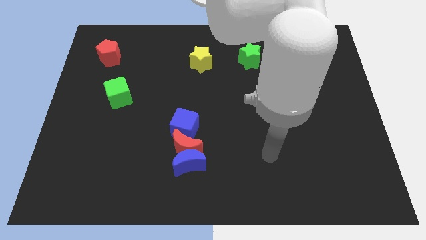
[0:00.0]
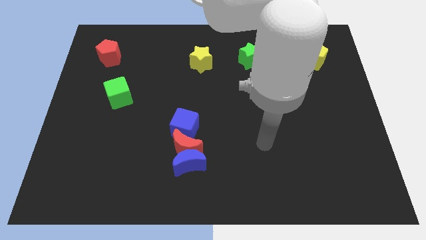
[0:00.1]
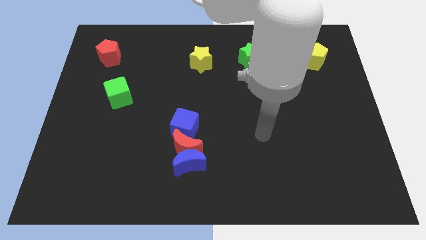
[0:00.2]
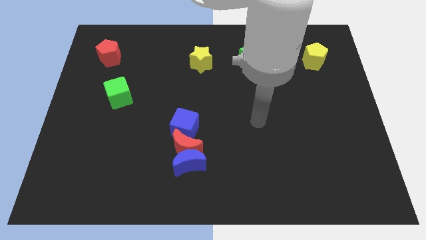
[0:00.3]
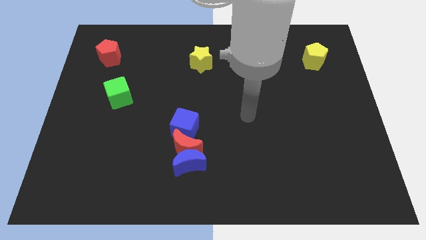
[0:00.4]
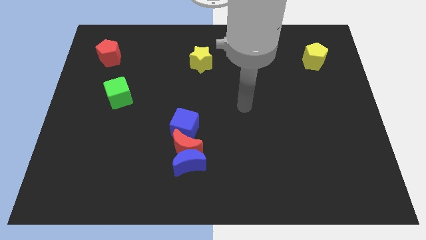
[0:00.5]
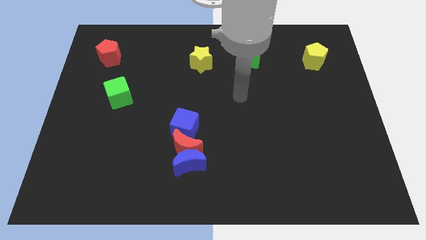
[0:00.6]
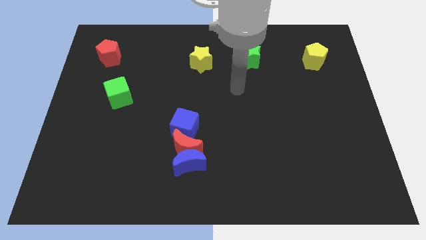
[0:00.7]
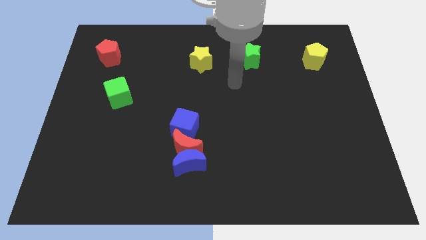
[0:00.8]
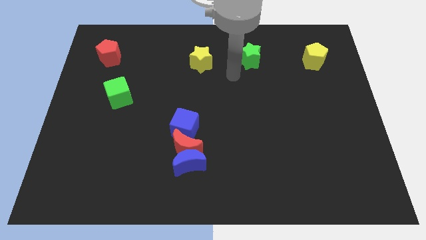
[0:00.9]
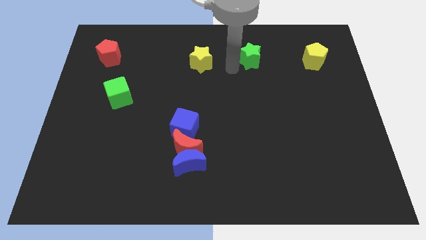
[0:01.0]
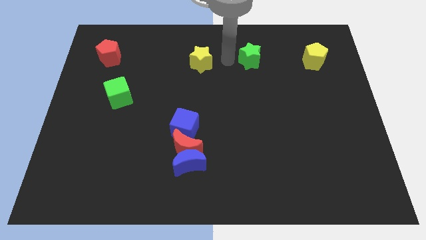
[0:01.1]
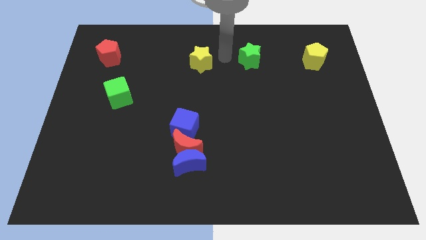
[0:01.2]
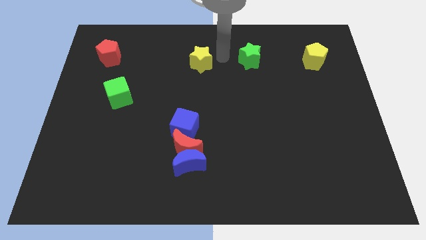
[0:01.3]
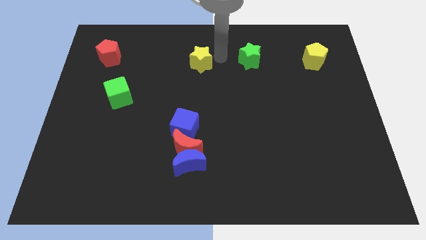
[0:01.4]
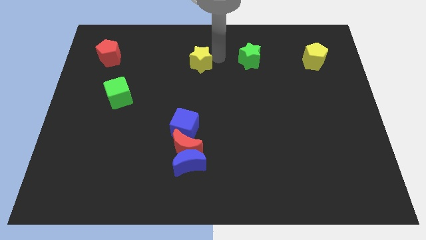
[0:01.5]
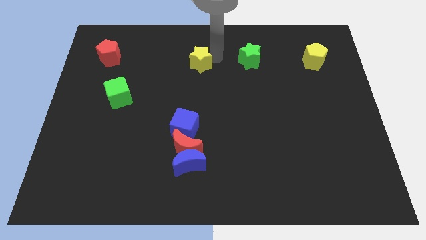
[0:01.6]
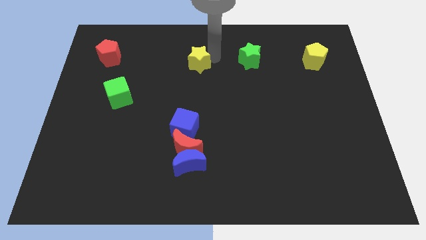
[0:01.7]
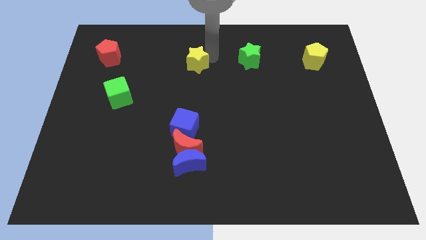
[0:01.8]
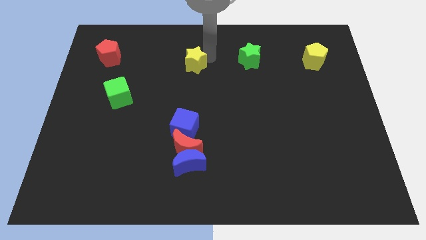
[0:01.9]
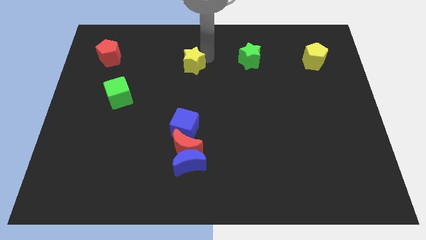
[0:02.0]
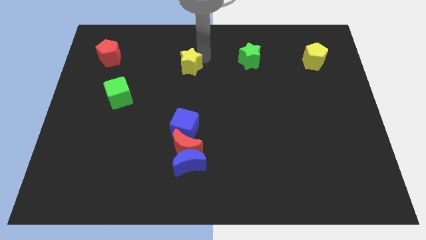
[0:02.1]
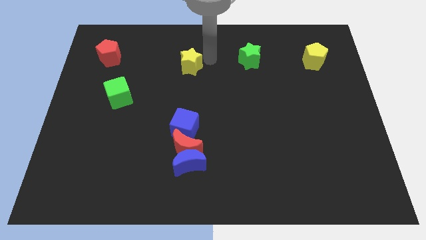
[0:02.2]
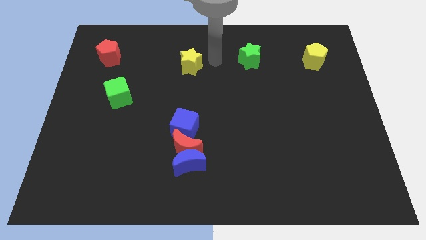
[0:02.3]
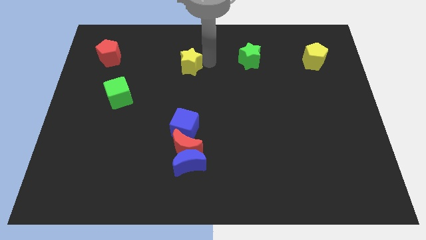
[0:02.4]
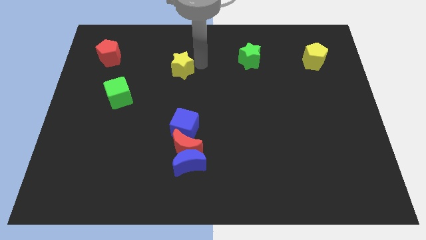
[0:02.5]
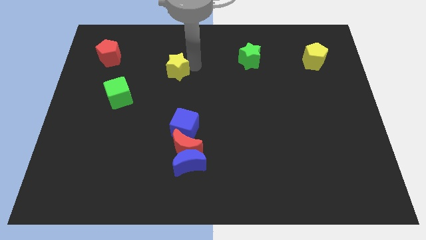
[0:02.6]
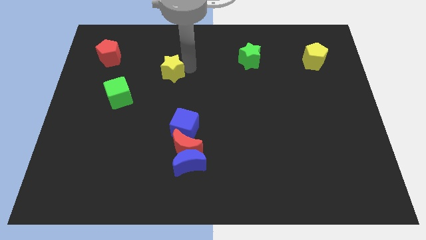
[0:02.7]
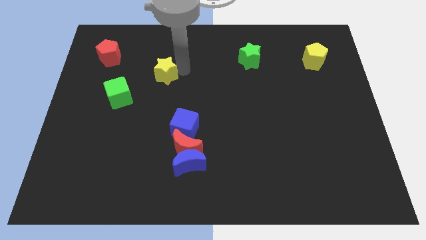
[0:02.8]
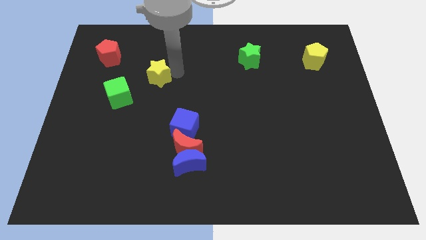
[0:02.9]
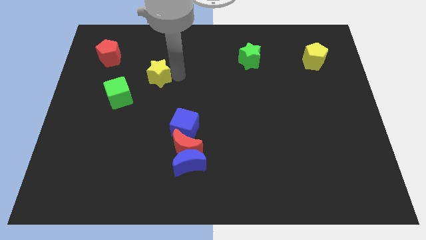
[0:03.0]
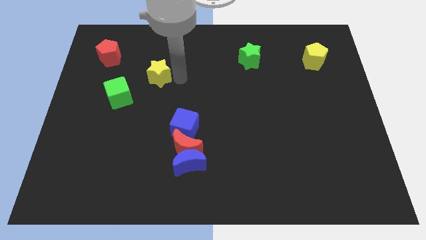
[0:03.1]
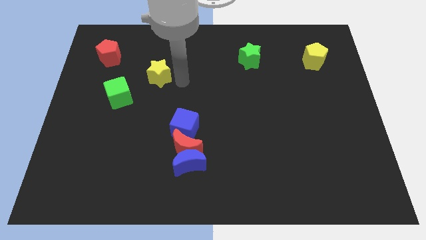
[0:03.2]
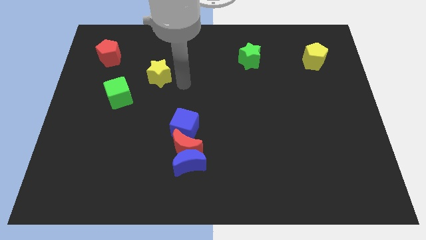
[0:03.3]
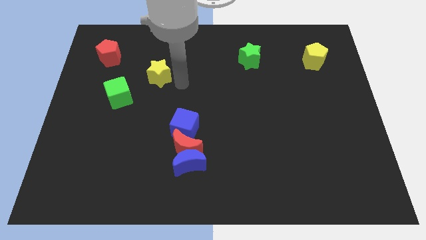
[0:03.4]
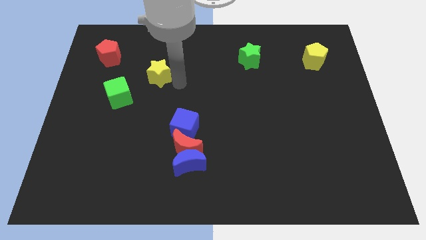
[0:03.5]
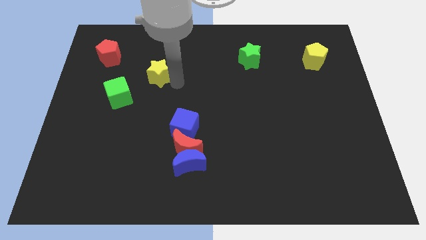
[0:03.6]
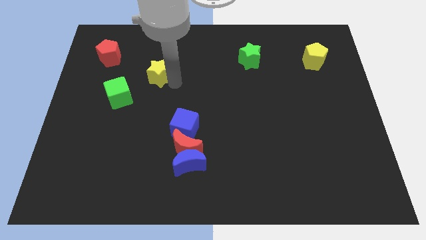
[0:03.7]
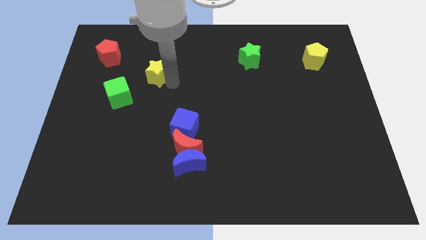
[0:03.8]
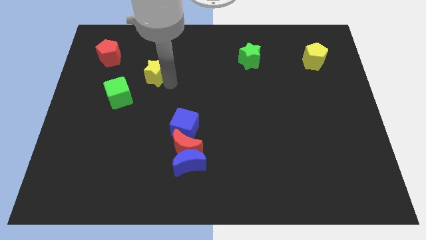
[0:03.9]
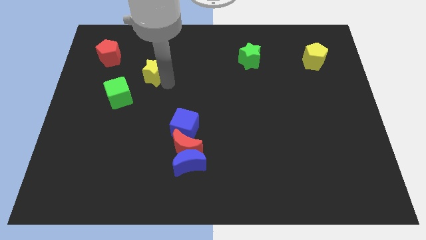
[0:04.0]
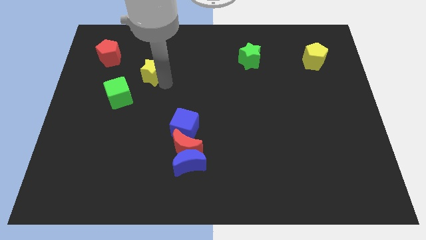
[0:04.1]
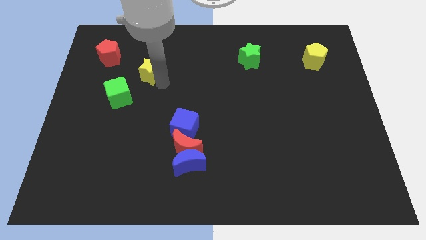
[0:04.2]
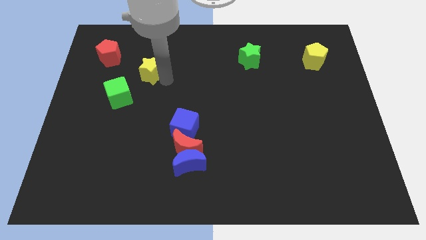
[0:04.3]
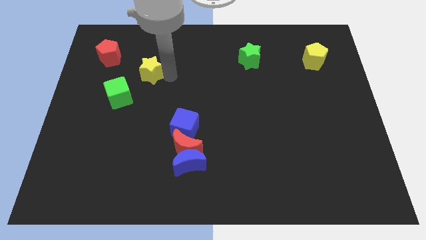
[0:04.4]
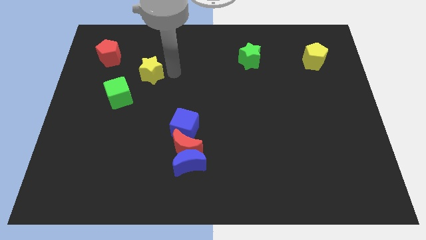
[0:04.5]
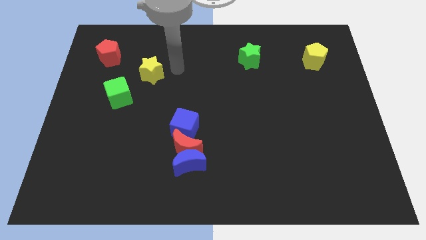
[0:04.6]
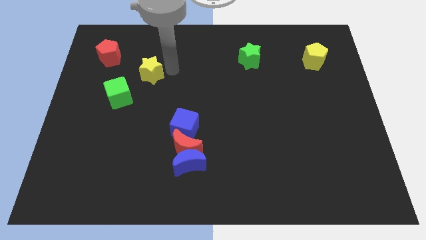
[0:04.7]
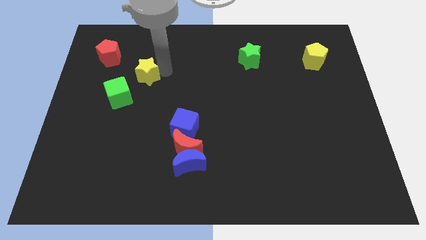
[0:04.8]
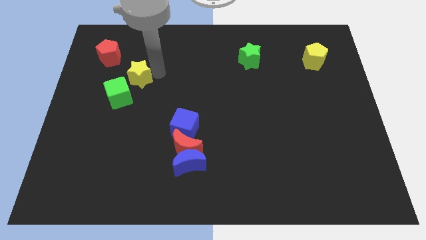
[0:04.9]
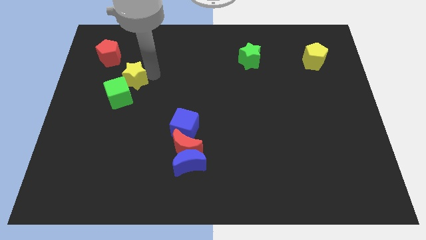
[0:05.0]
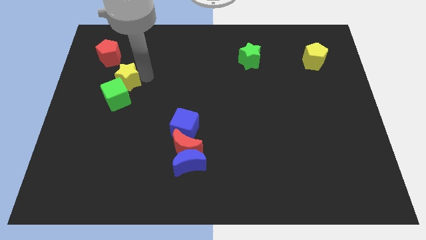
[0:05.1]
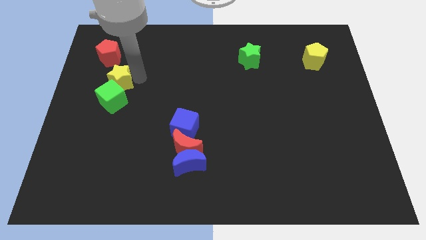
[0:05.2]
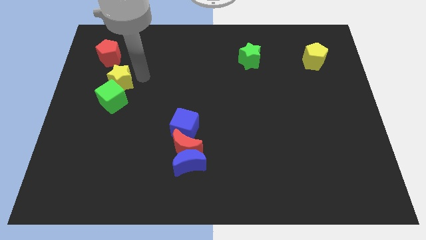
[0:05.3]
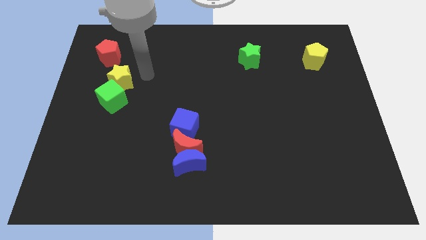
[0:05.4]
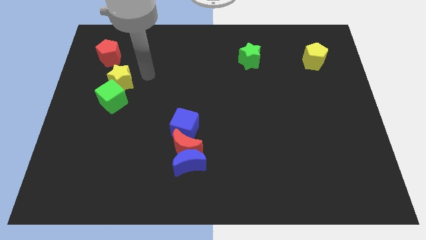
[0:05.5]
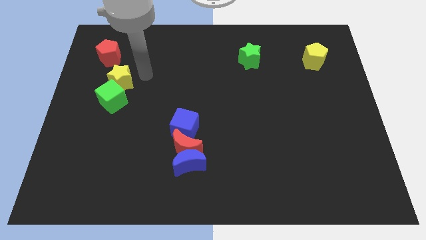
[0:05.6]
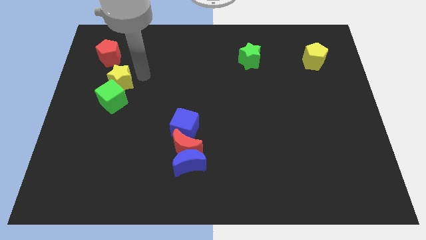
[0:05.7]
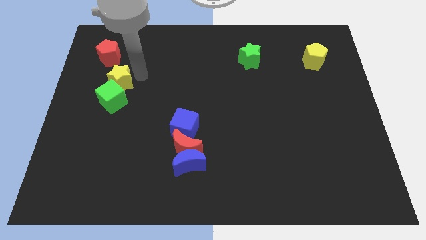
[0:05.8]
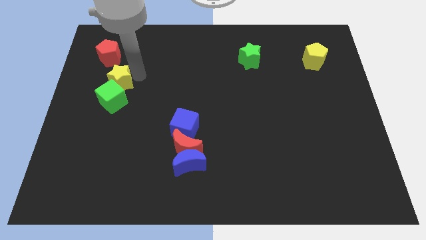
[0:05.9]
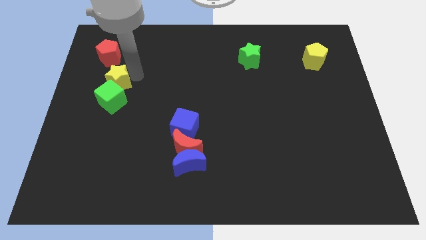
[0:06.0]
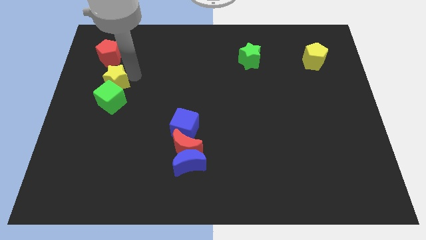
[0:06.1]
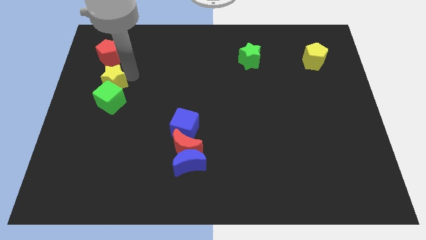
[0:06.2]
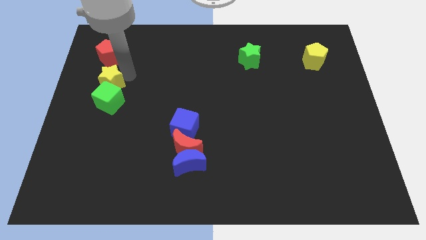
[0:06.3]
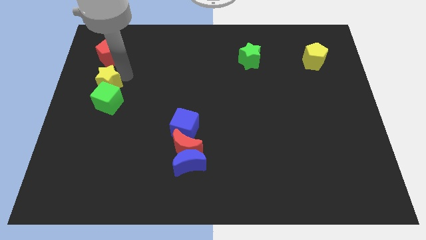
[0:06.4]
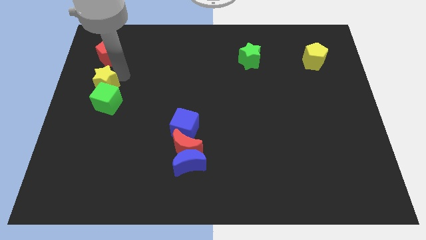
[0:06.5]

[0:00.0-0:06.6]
move the yellow star to the left side of the board
